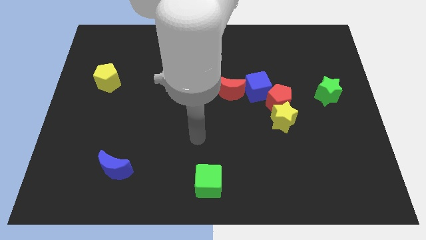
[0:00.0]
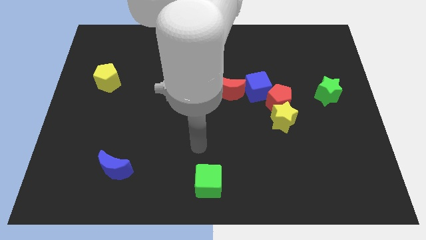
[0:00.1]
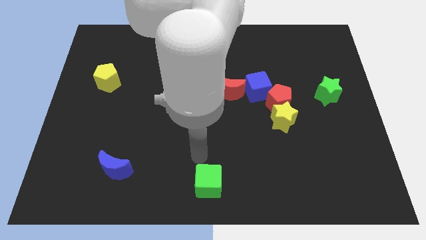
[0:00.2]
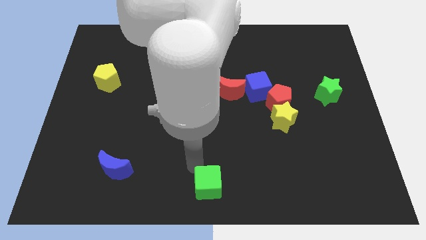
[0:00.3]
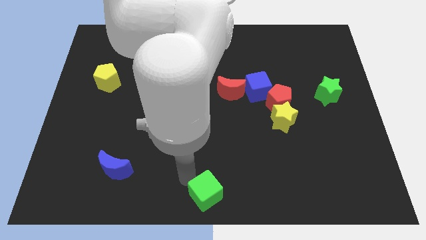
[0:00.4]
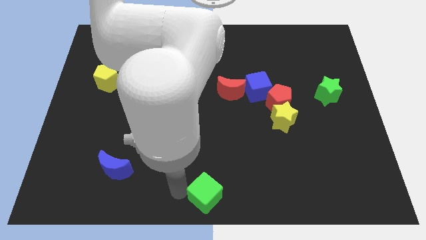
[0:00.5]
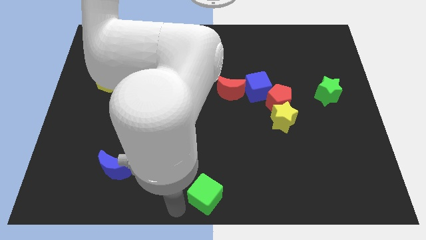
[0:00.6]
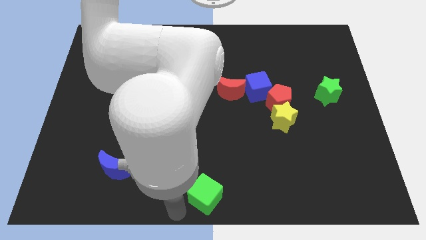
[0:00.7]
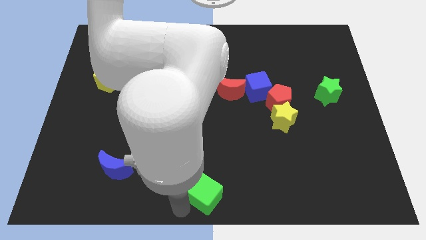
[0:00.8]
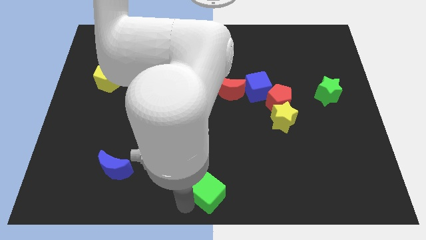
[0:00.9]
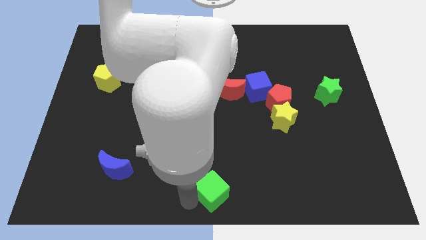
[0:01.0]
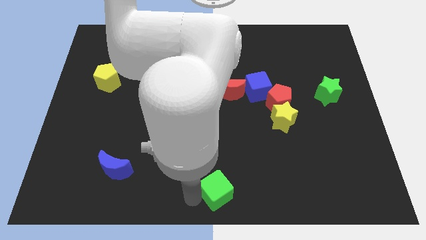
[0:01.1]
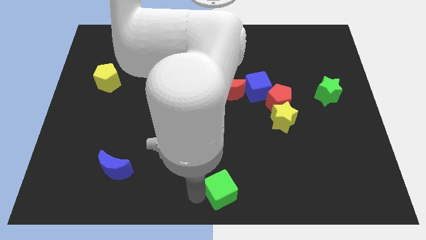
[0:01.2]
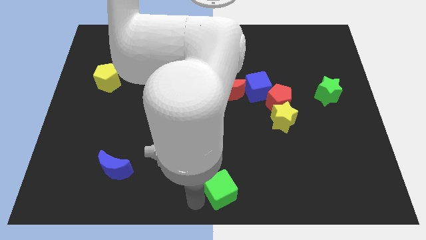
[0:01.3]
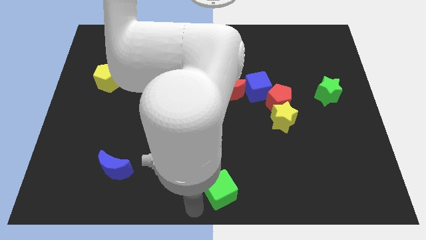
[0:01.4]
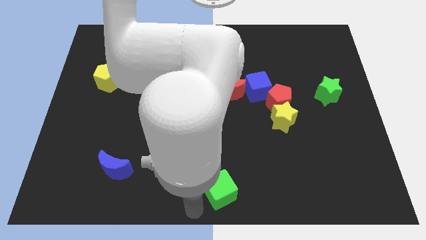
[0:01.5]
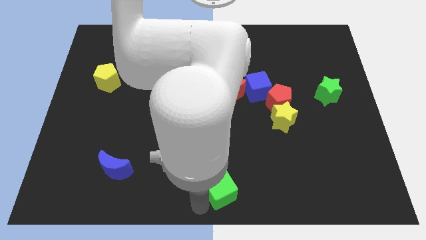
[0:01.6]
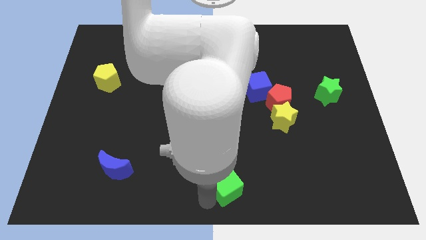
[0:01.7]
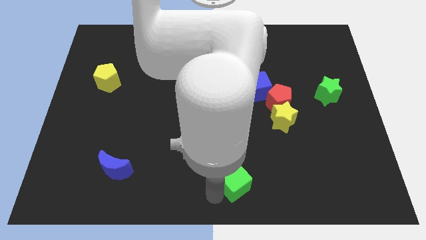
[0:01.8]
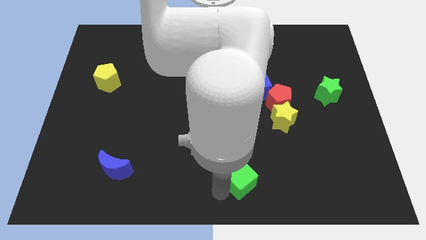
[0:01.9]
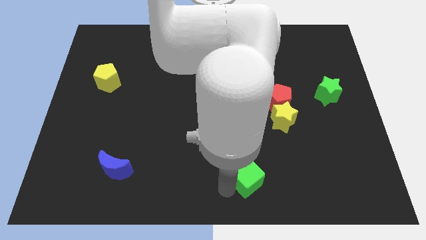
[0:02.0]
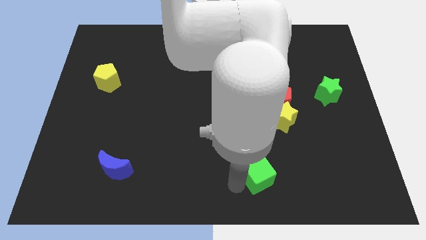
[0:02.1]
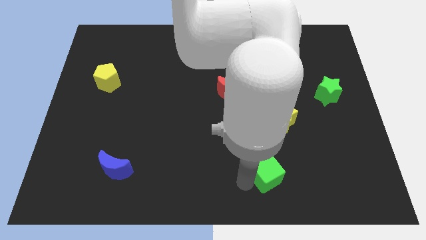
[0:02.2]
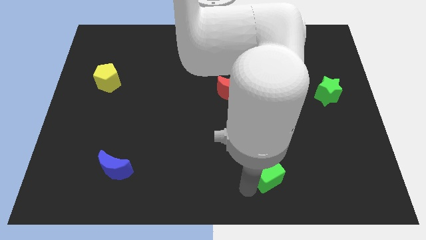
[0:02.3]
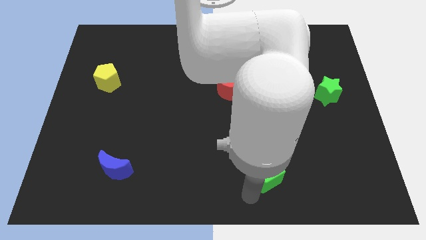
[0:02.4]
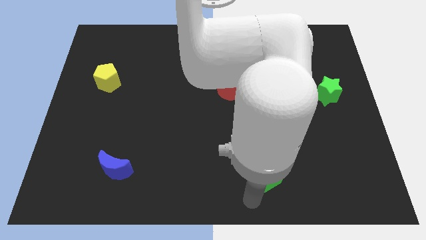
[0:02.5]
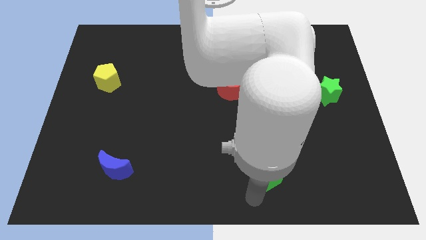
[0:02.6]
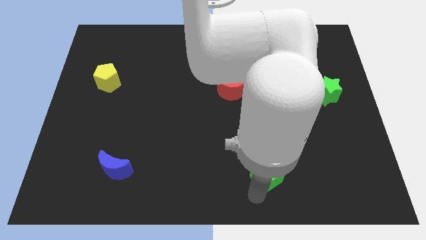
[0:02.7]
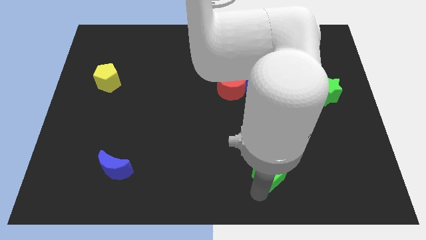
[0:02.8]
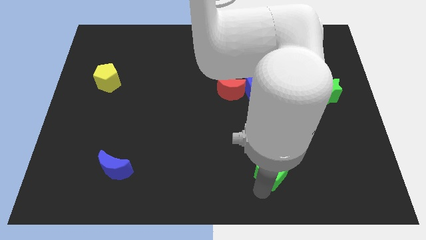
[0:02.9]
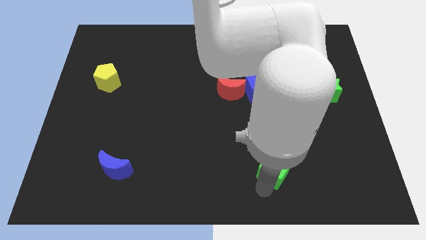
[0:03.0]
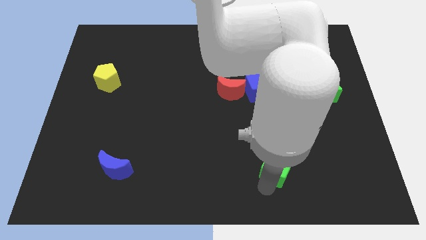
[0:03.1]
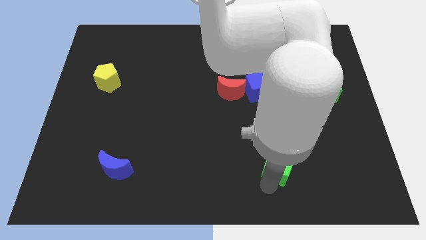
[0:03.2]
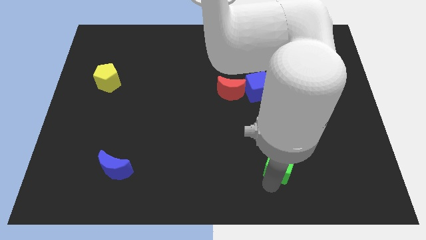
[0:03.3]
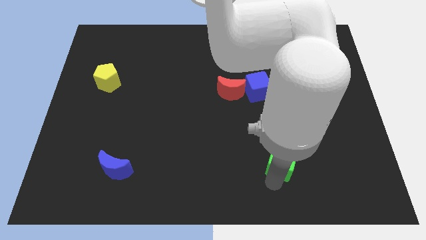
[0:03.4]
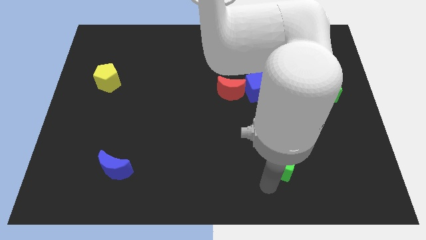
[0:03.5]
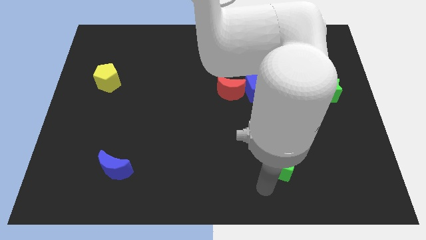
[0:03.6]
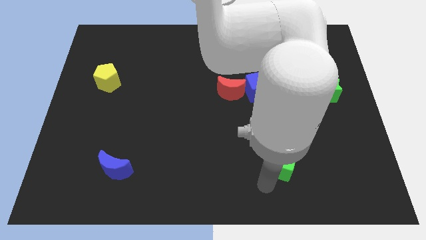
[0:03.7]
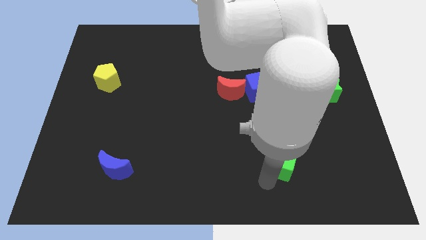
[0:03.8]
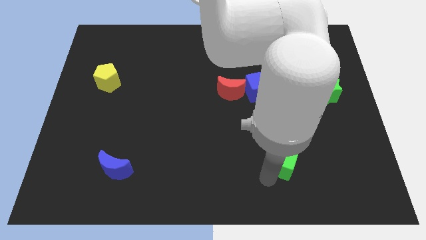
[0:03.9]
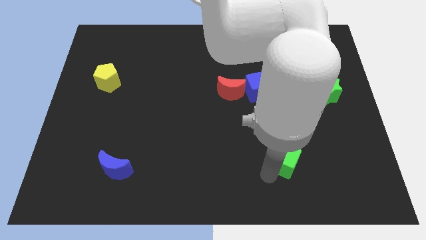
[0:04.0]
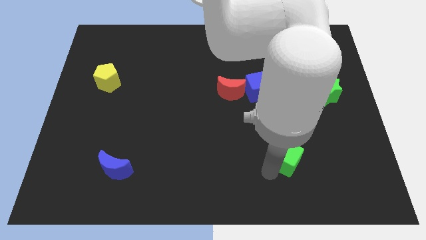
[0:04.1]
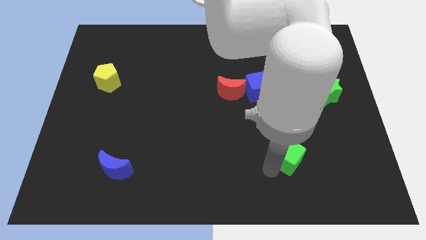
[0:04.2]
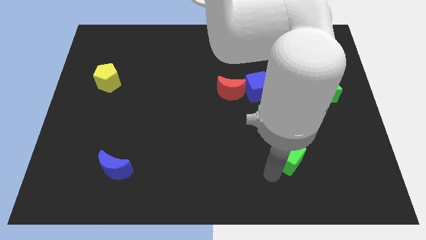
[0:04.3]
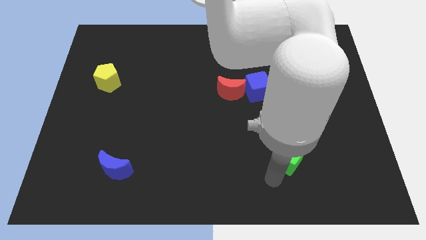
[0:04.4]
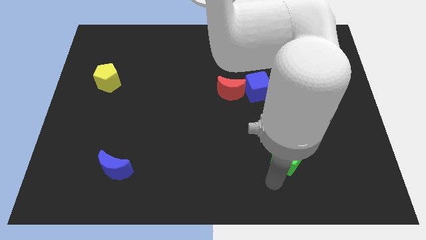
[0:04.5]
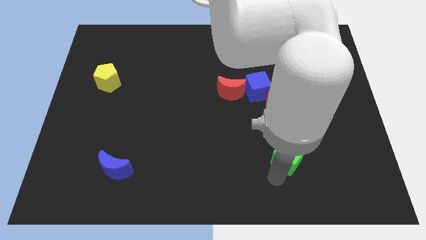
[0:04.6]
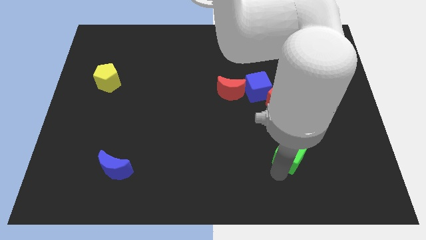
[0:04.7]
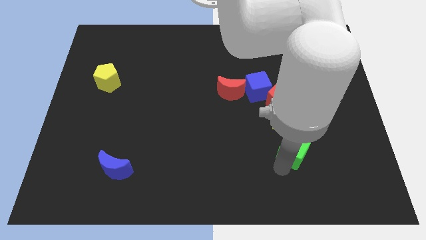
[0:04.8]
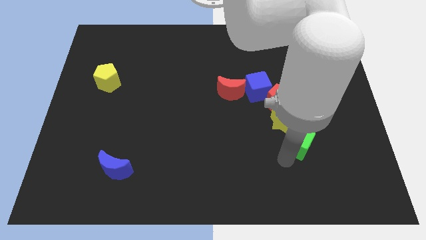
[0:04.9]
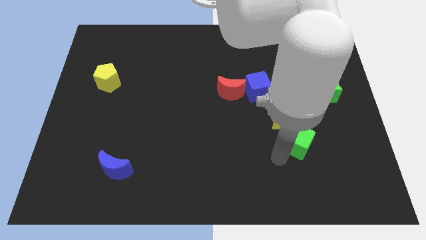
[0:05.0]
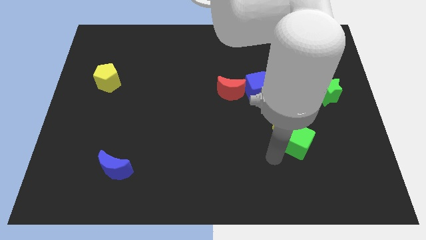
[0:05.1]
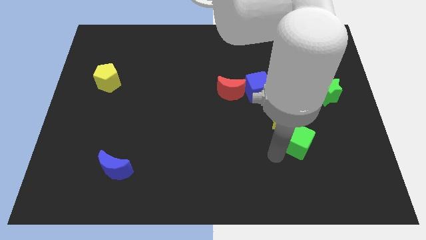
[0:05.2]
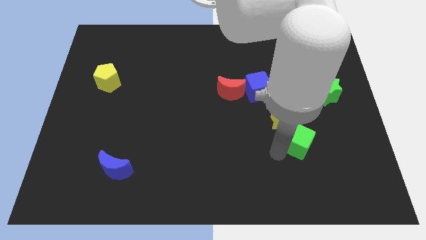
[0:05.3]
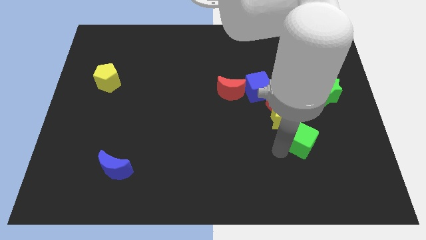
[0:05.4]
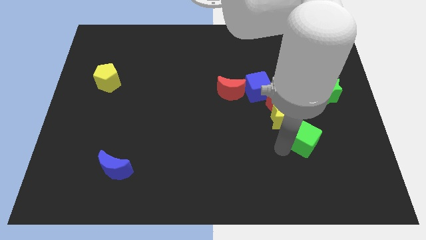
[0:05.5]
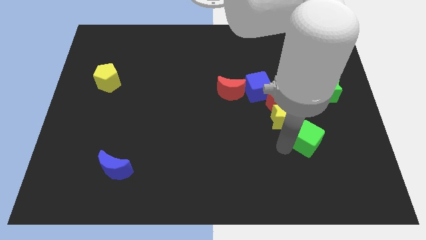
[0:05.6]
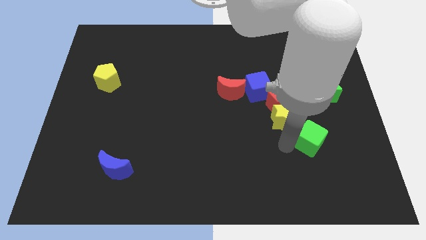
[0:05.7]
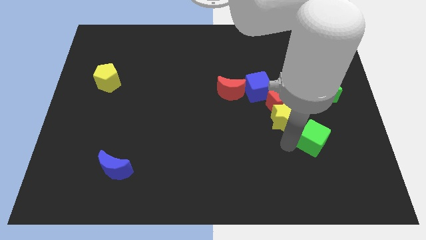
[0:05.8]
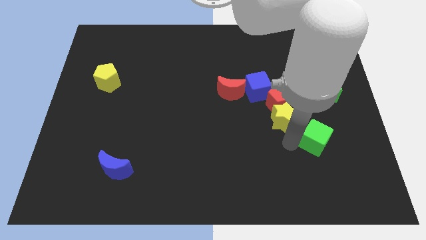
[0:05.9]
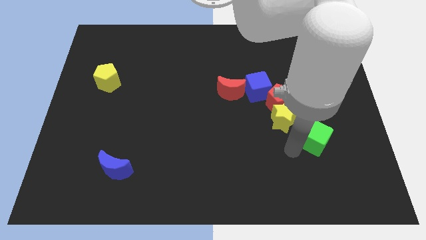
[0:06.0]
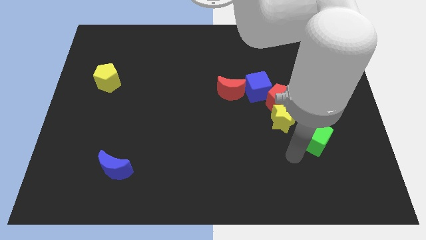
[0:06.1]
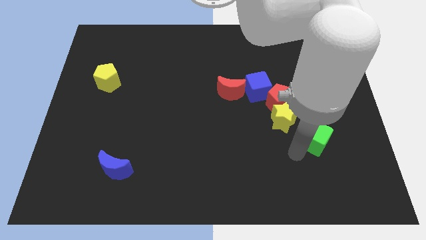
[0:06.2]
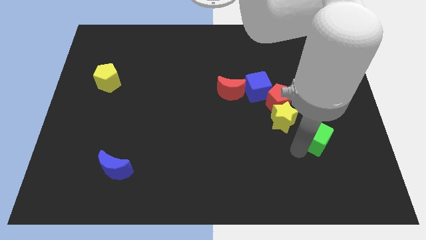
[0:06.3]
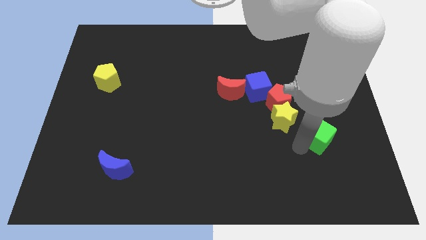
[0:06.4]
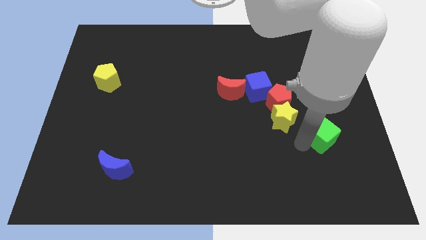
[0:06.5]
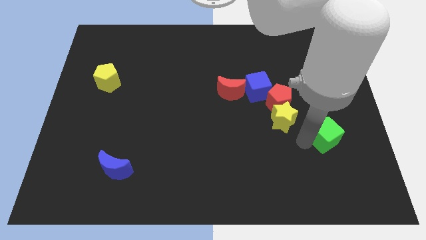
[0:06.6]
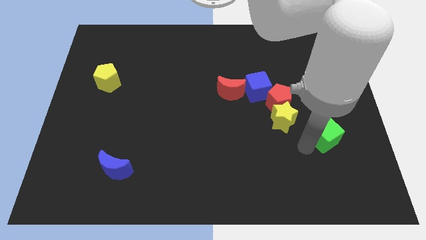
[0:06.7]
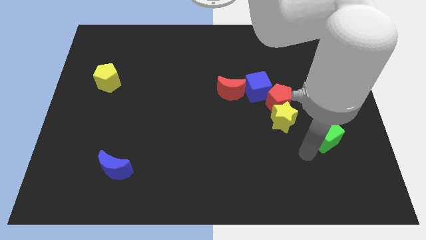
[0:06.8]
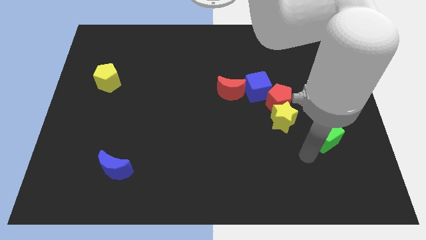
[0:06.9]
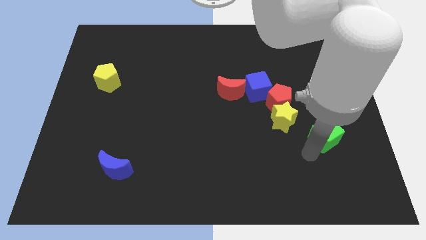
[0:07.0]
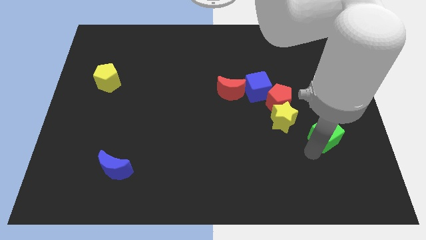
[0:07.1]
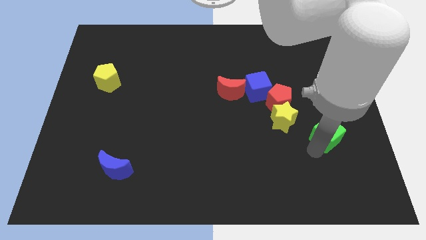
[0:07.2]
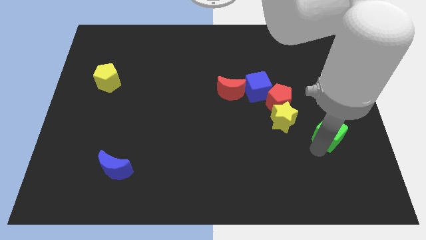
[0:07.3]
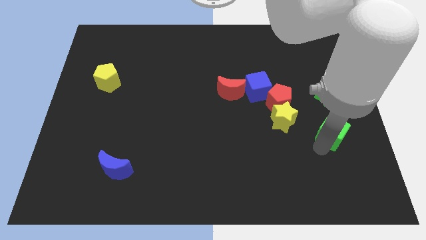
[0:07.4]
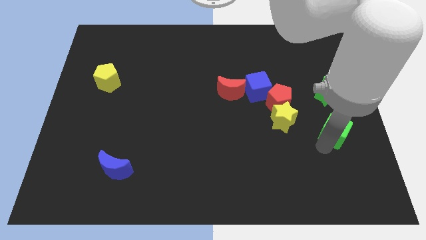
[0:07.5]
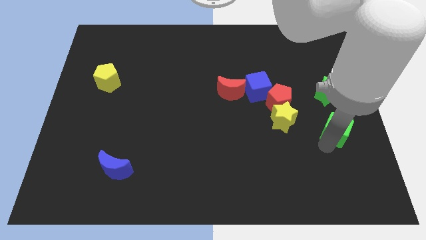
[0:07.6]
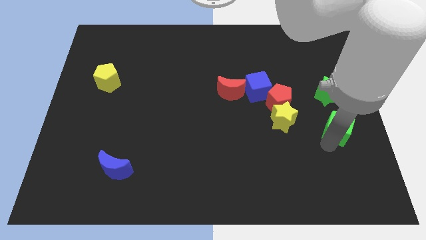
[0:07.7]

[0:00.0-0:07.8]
move the green cube to the right side of the board
